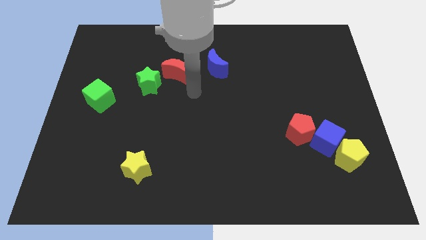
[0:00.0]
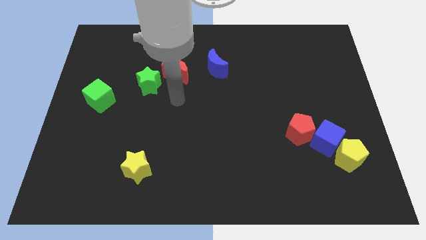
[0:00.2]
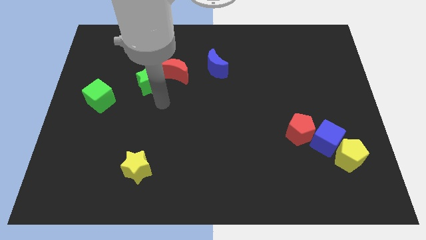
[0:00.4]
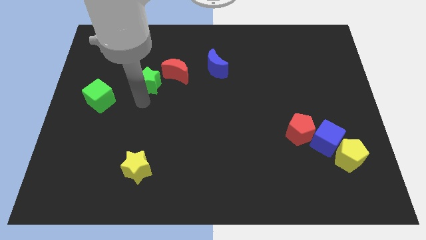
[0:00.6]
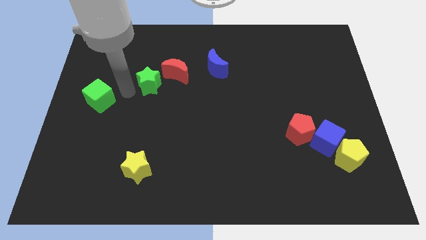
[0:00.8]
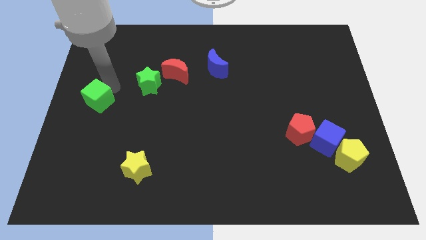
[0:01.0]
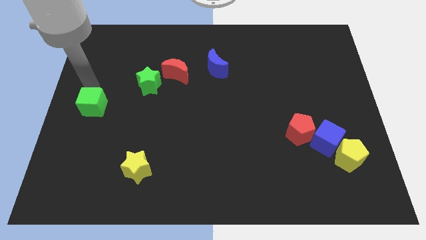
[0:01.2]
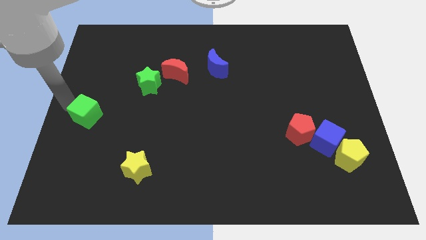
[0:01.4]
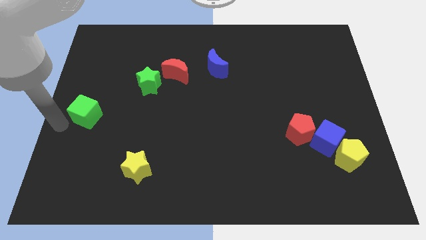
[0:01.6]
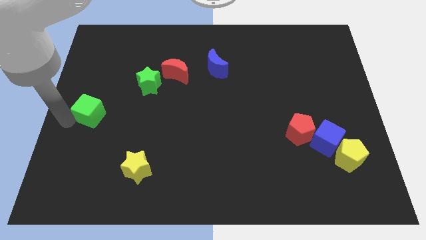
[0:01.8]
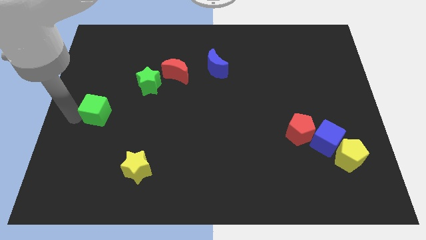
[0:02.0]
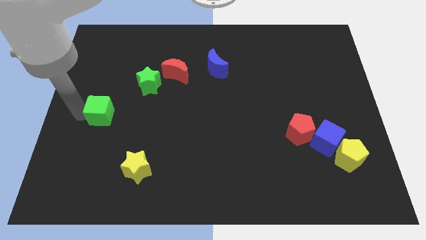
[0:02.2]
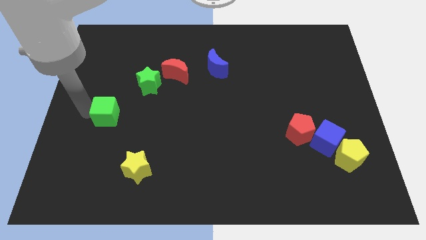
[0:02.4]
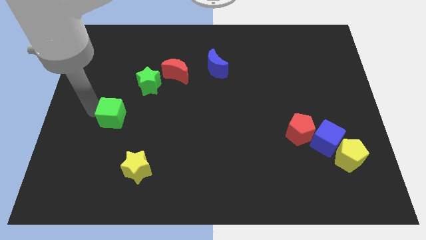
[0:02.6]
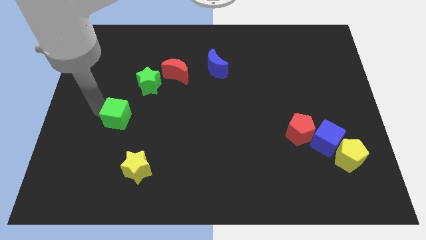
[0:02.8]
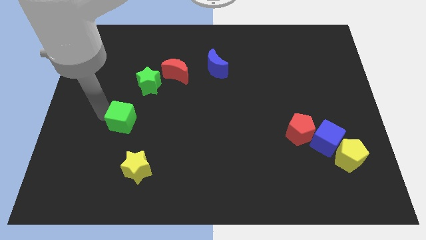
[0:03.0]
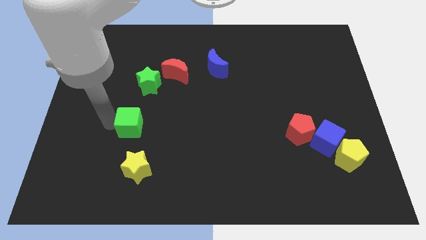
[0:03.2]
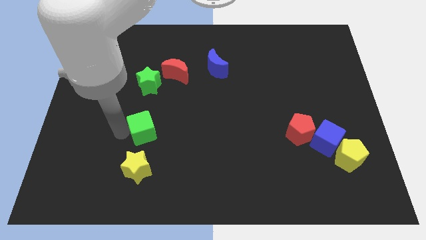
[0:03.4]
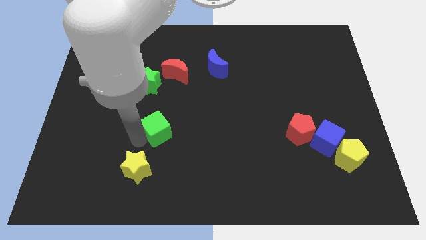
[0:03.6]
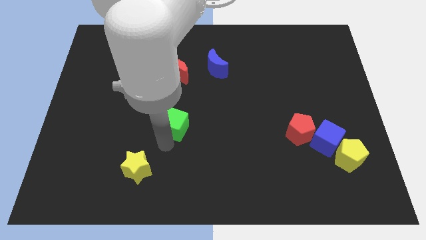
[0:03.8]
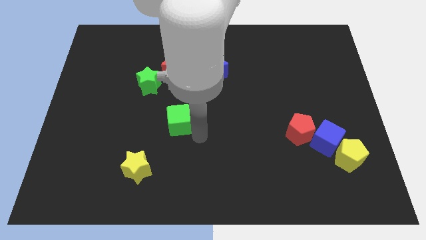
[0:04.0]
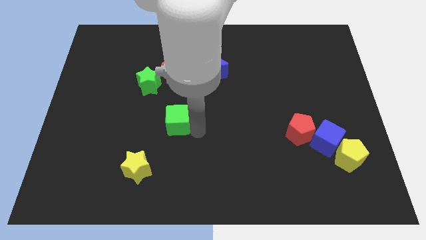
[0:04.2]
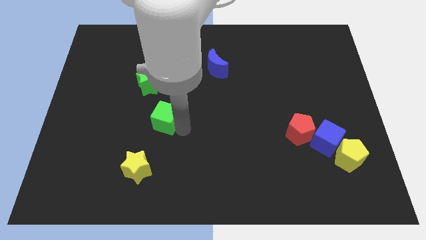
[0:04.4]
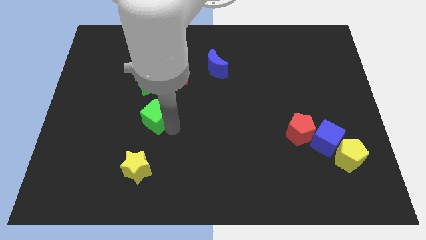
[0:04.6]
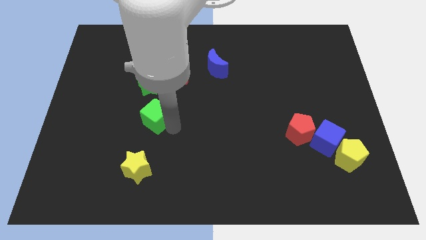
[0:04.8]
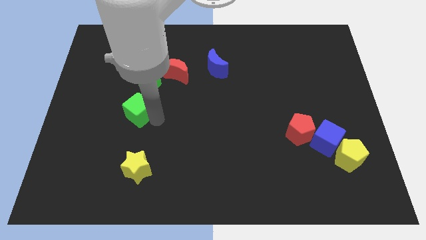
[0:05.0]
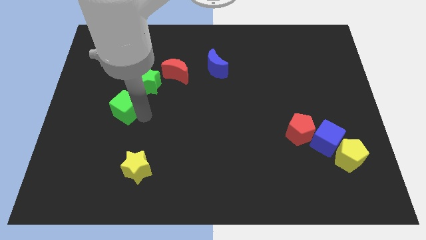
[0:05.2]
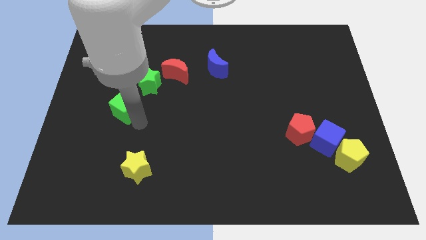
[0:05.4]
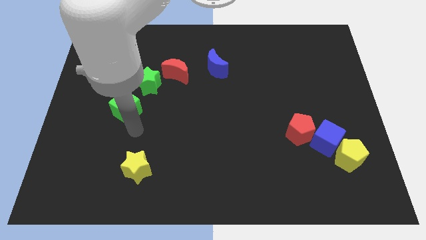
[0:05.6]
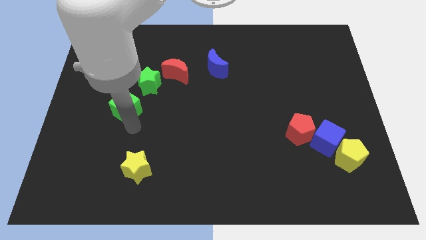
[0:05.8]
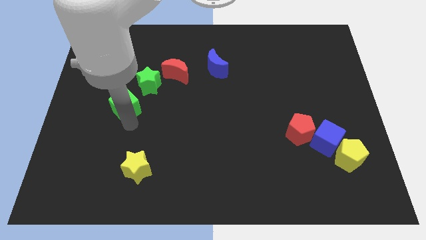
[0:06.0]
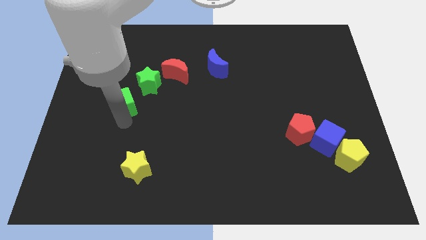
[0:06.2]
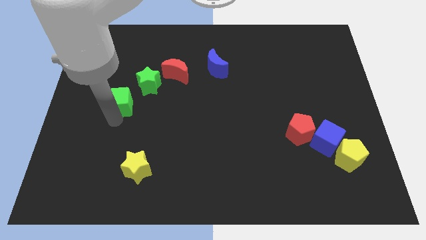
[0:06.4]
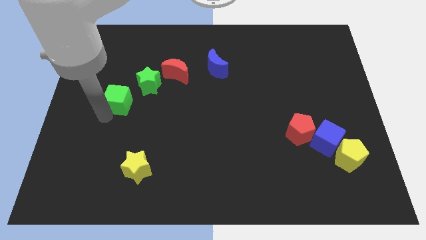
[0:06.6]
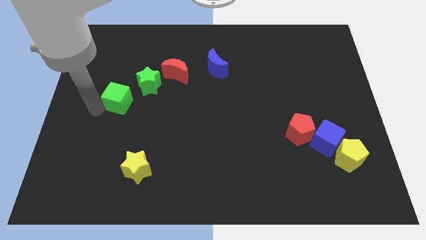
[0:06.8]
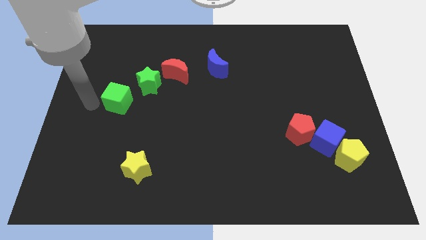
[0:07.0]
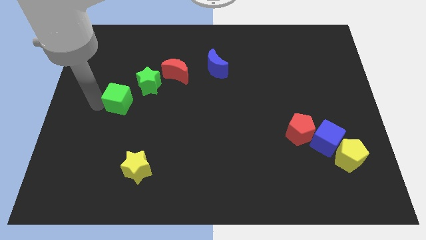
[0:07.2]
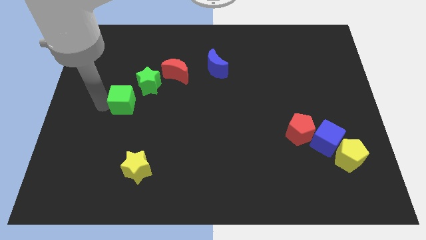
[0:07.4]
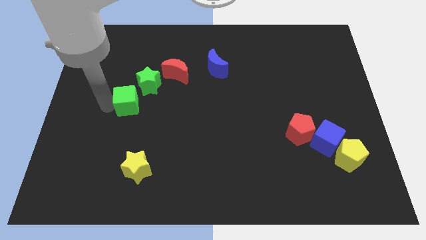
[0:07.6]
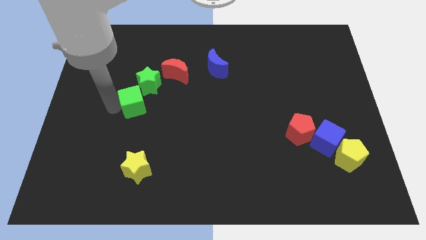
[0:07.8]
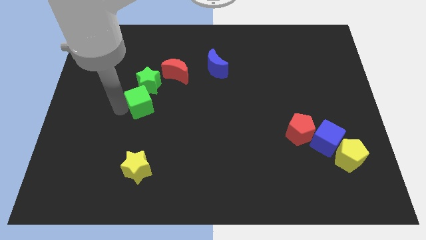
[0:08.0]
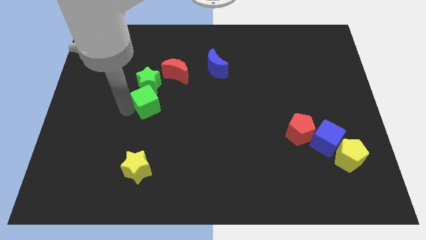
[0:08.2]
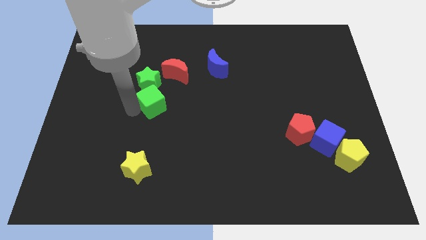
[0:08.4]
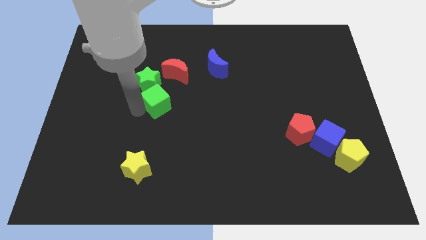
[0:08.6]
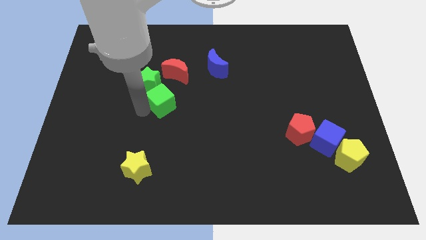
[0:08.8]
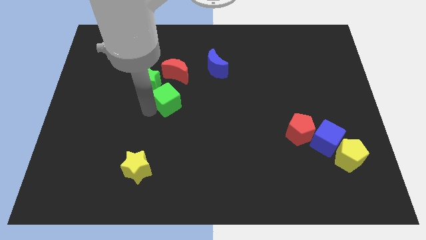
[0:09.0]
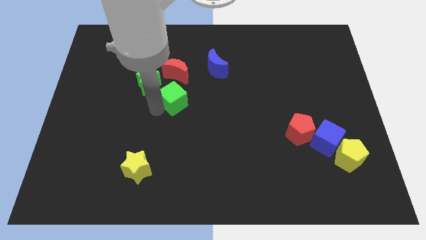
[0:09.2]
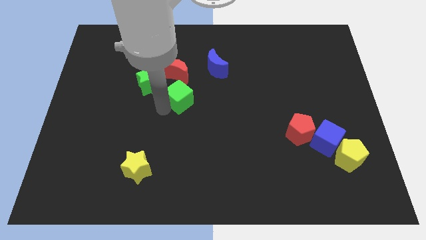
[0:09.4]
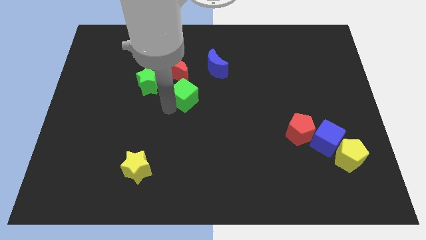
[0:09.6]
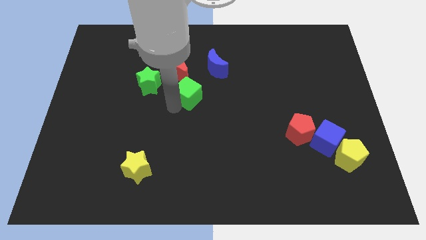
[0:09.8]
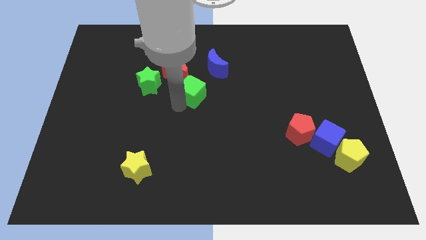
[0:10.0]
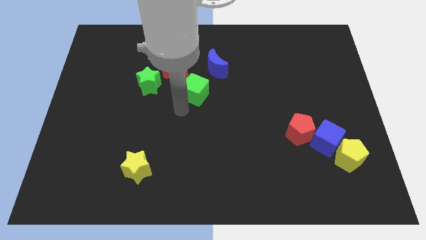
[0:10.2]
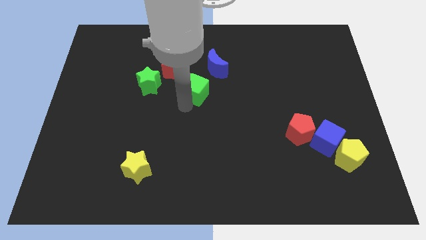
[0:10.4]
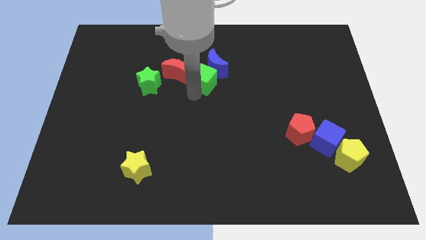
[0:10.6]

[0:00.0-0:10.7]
push the green cube next to the blue moon

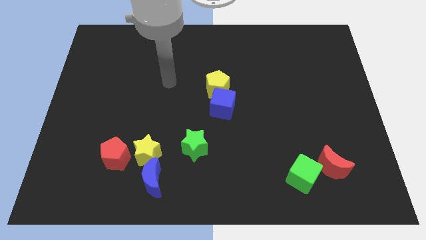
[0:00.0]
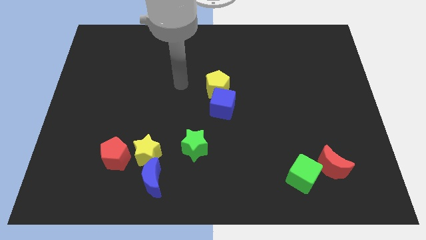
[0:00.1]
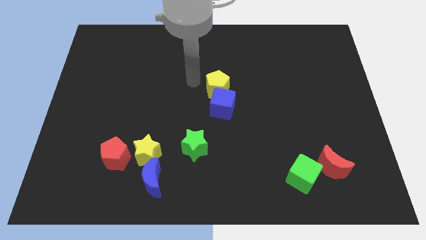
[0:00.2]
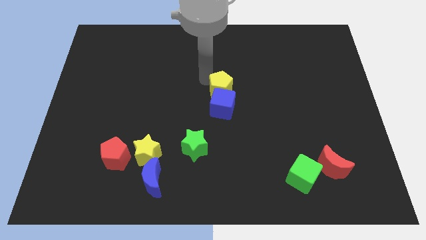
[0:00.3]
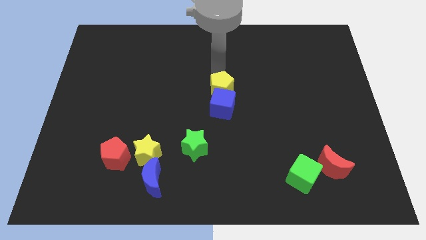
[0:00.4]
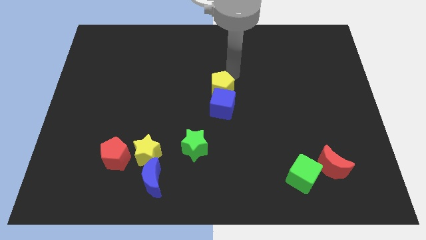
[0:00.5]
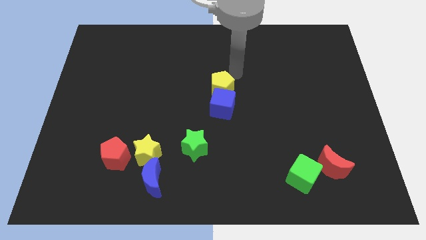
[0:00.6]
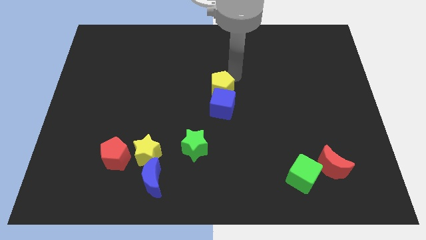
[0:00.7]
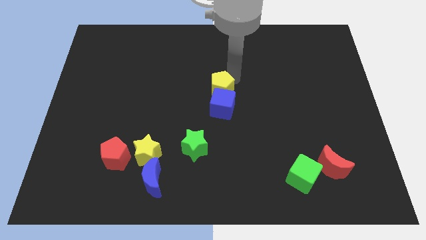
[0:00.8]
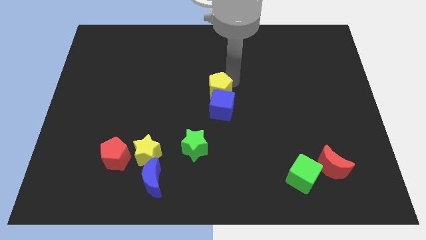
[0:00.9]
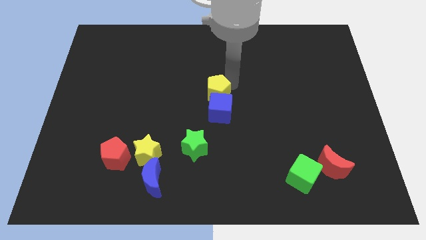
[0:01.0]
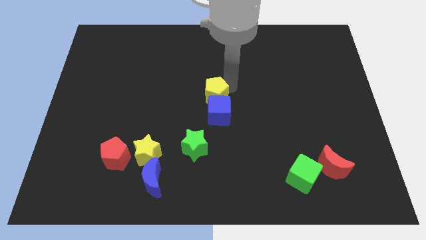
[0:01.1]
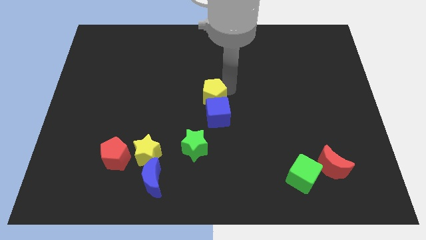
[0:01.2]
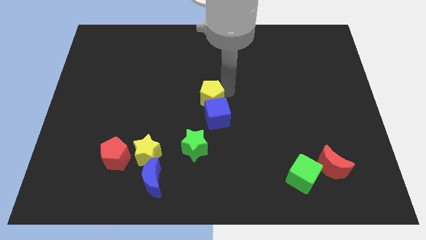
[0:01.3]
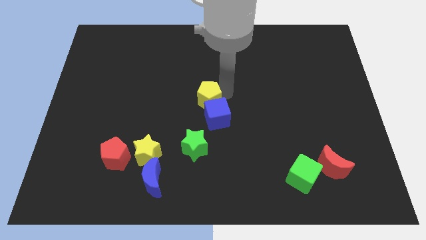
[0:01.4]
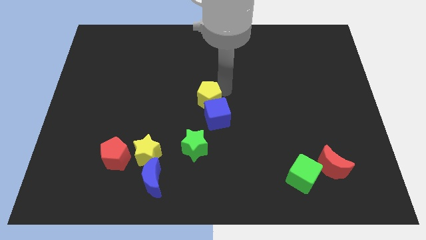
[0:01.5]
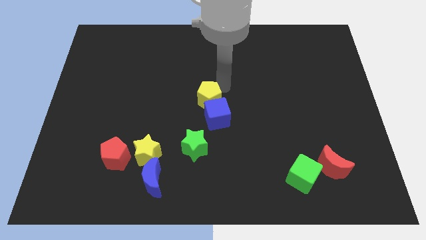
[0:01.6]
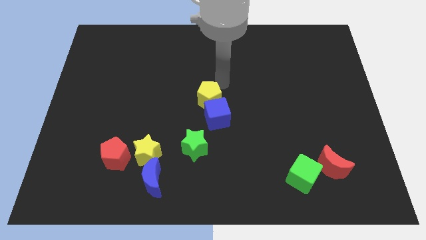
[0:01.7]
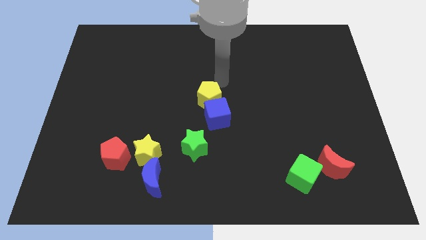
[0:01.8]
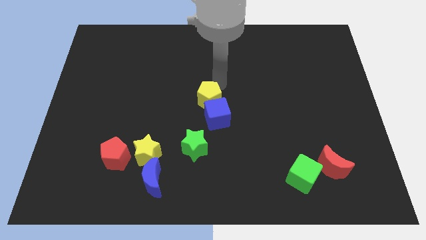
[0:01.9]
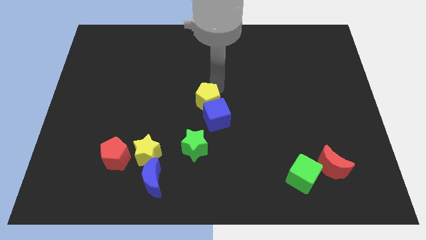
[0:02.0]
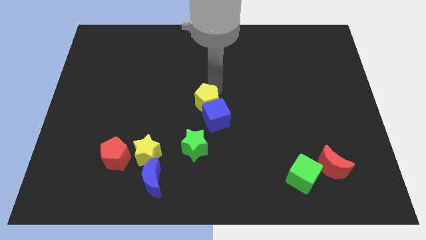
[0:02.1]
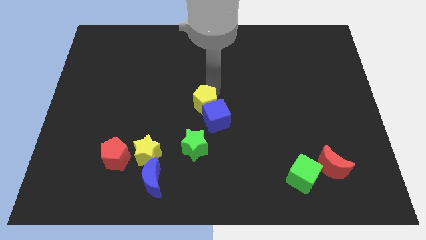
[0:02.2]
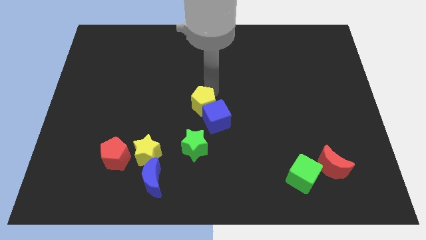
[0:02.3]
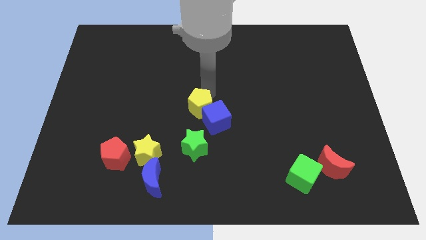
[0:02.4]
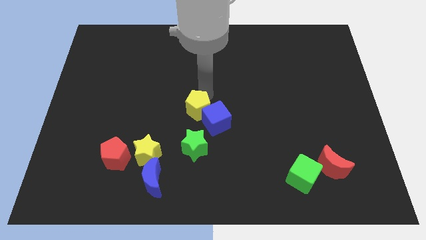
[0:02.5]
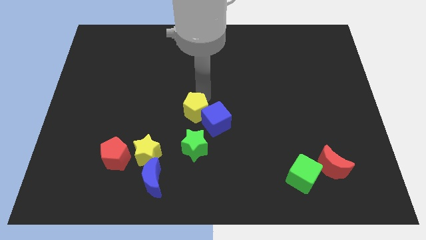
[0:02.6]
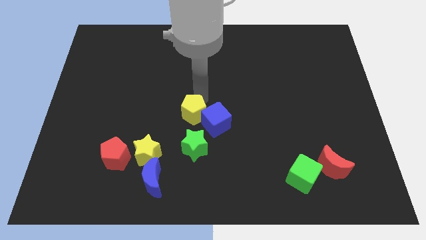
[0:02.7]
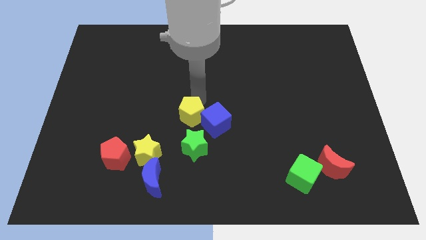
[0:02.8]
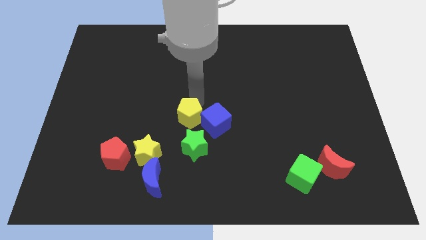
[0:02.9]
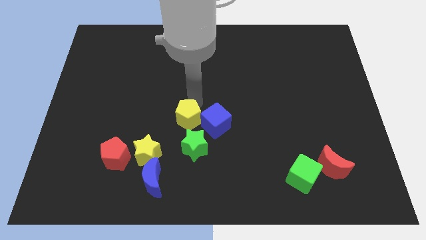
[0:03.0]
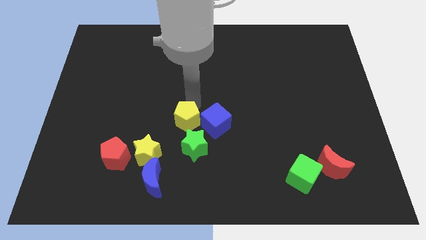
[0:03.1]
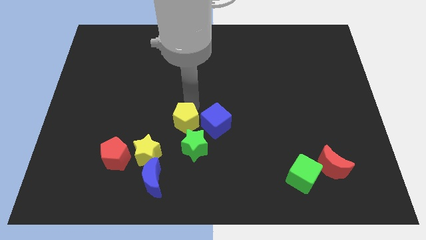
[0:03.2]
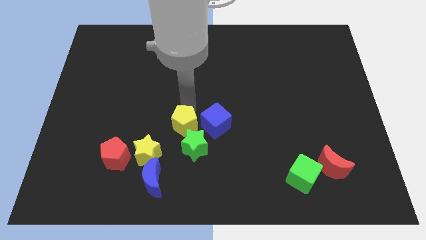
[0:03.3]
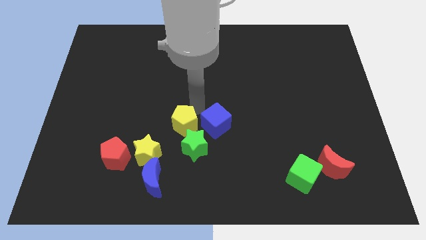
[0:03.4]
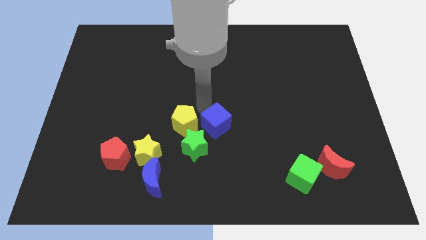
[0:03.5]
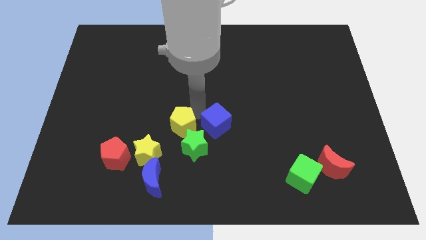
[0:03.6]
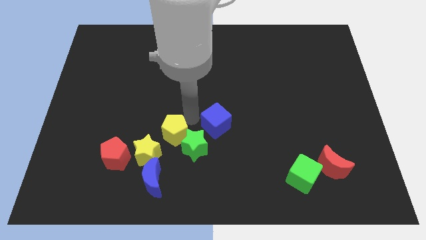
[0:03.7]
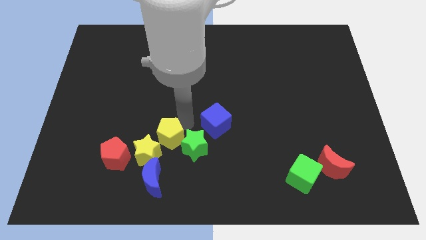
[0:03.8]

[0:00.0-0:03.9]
slide the yellow pentagon towards the yellow star
